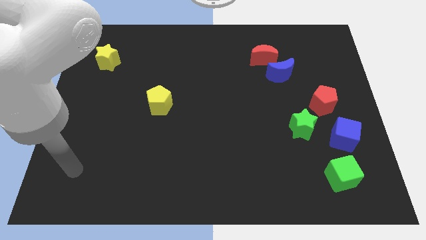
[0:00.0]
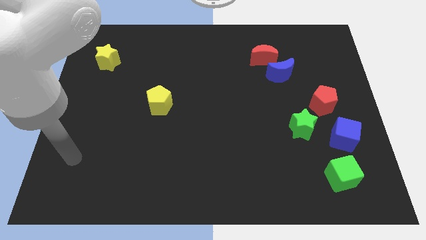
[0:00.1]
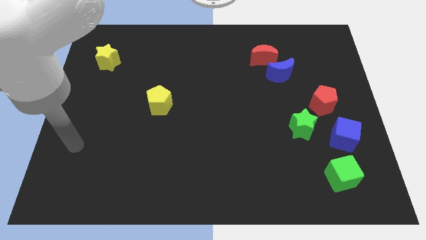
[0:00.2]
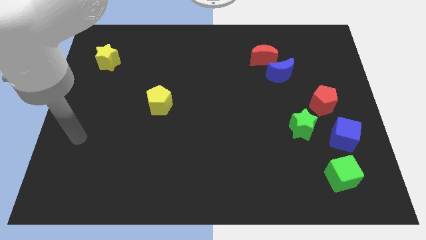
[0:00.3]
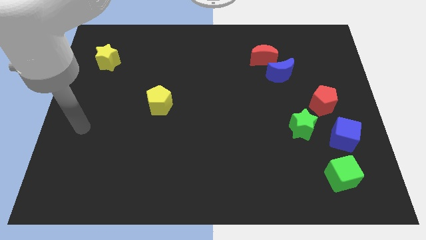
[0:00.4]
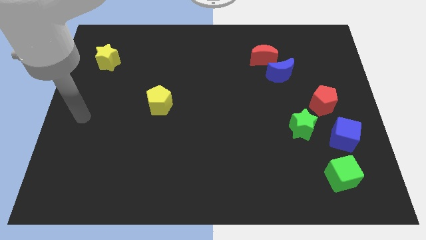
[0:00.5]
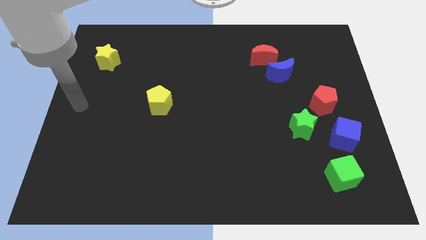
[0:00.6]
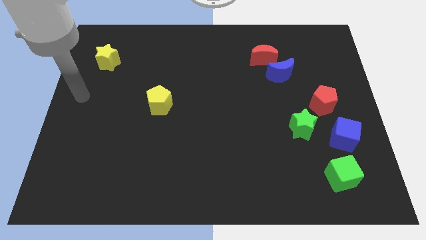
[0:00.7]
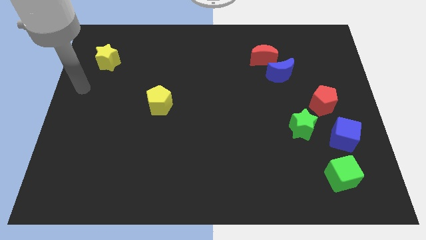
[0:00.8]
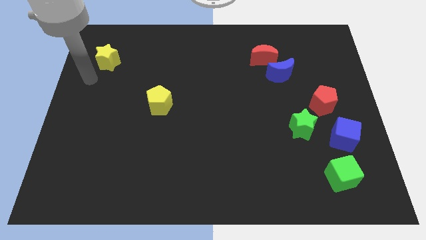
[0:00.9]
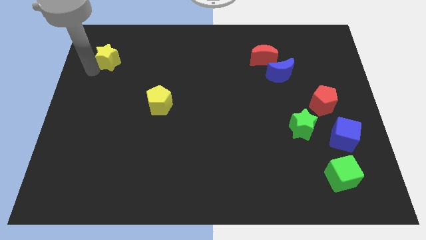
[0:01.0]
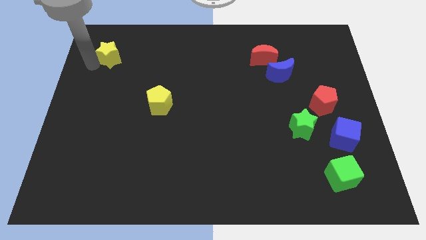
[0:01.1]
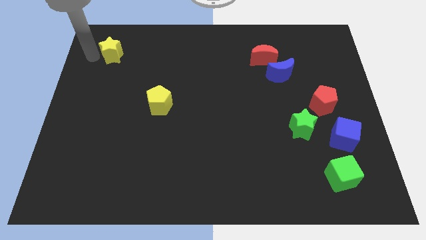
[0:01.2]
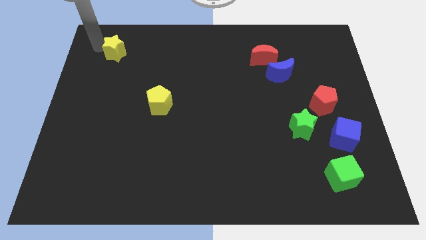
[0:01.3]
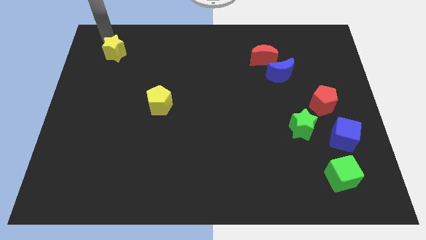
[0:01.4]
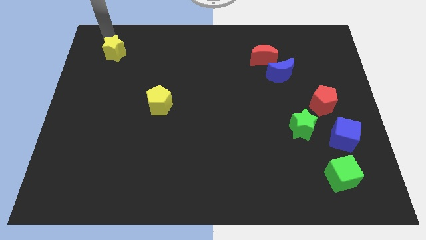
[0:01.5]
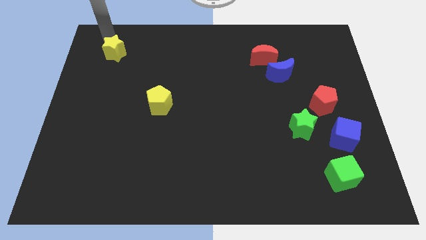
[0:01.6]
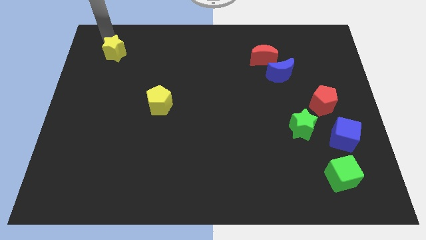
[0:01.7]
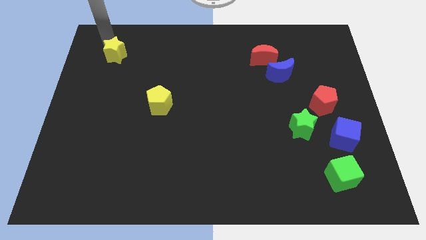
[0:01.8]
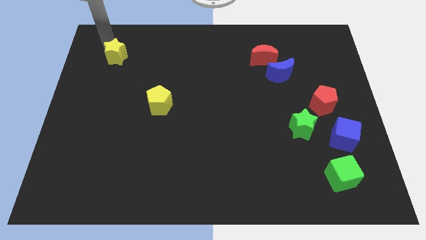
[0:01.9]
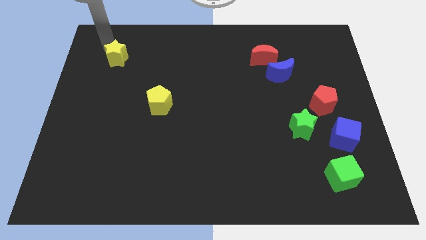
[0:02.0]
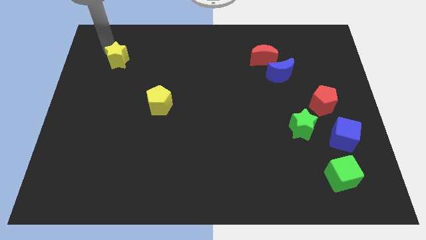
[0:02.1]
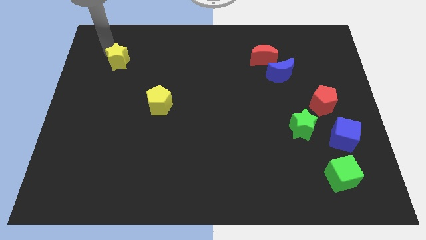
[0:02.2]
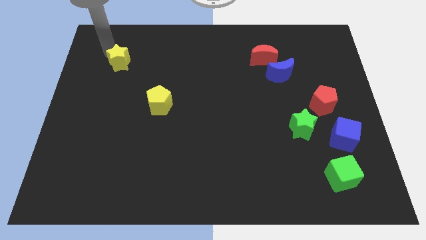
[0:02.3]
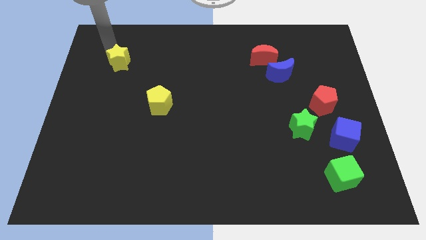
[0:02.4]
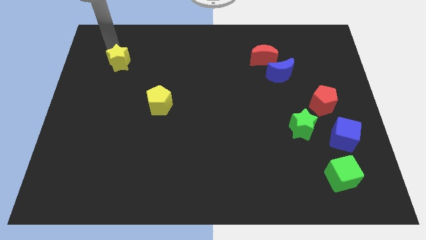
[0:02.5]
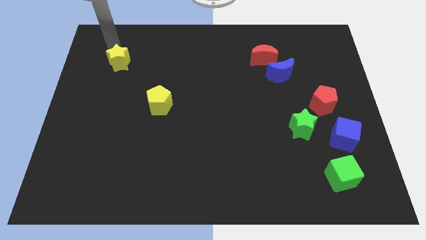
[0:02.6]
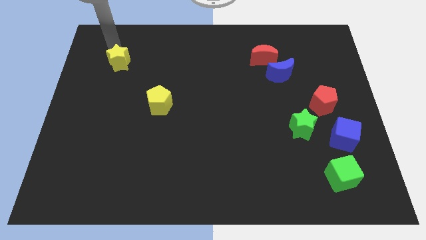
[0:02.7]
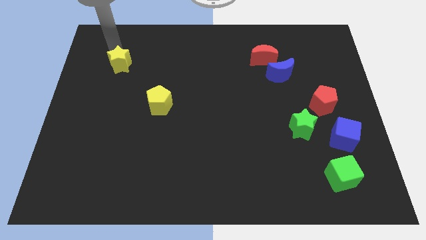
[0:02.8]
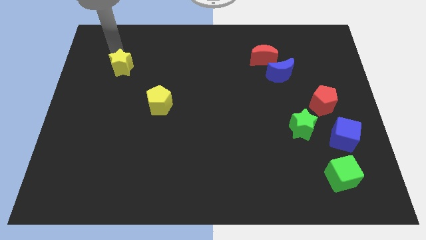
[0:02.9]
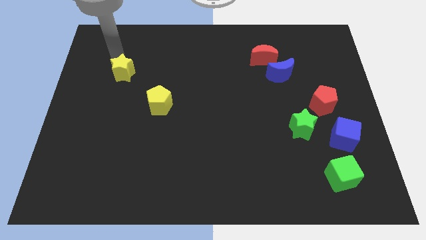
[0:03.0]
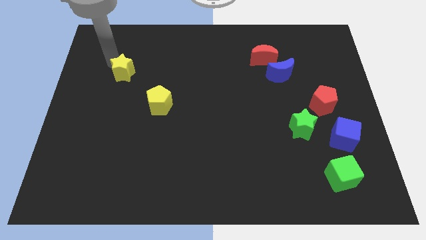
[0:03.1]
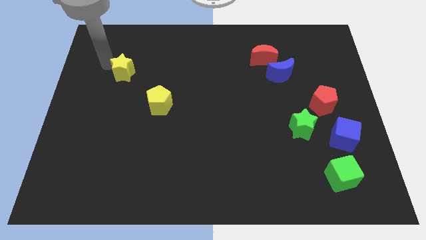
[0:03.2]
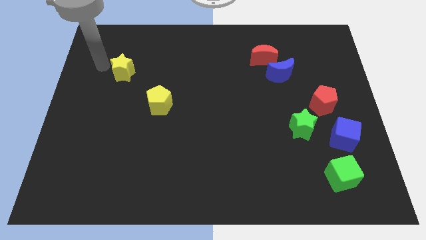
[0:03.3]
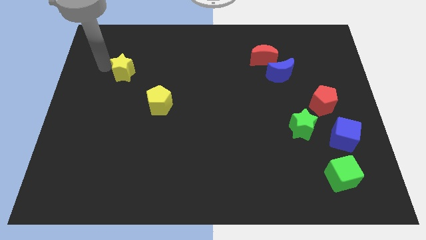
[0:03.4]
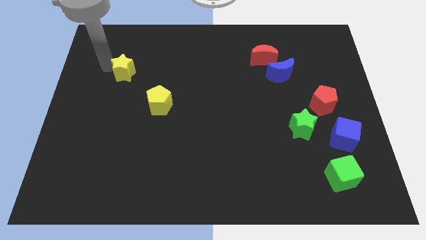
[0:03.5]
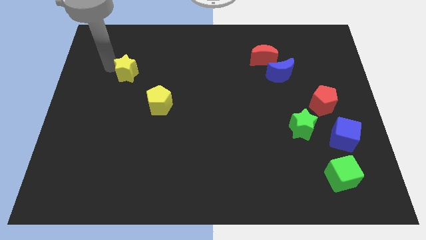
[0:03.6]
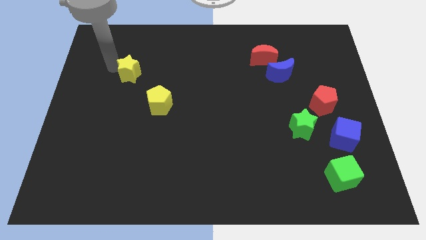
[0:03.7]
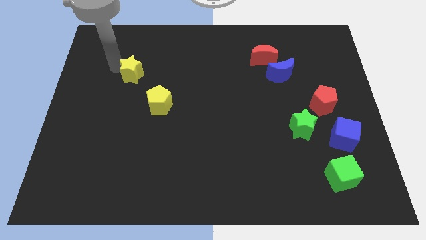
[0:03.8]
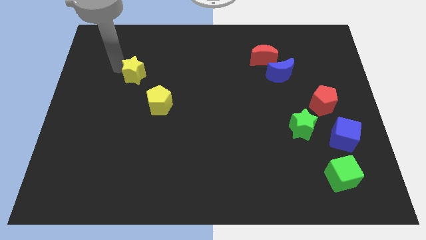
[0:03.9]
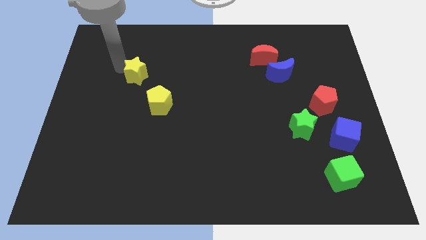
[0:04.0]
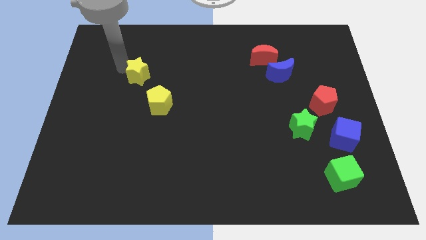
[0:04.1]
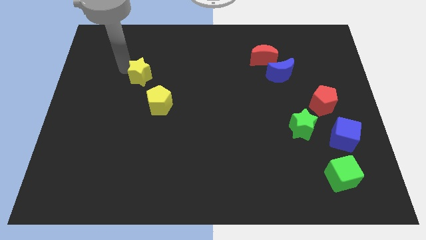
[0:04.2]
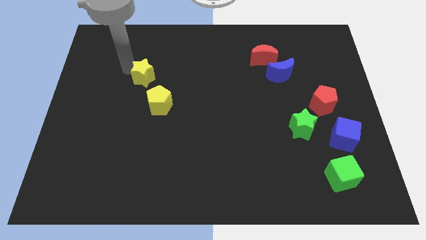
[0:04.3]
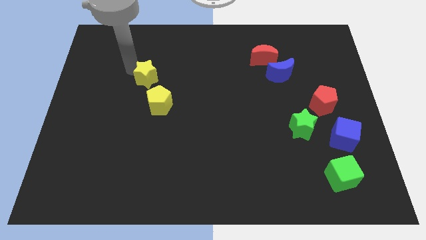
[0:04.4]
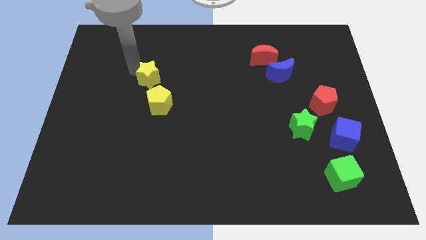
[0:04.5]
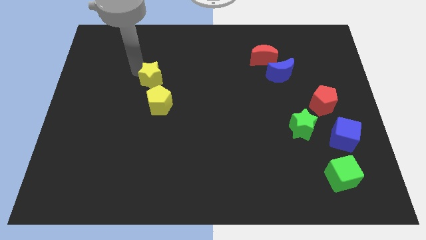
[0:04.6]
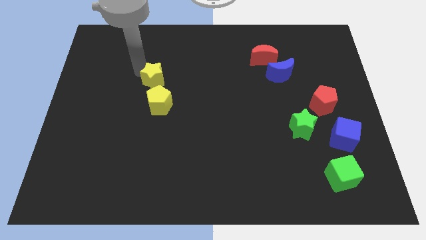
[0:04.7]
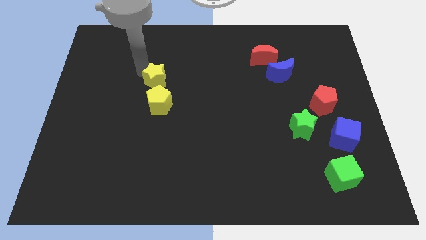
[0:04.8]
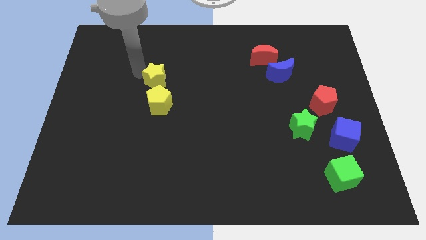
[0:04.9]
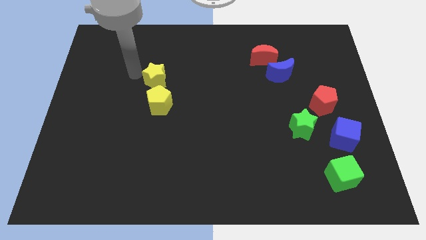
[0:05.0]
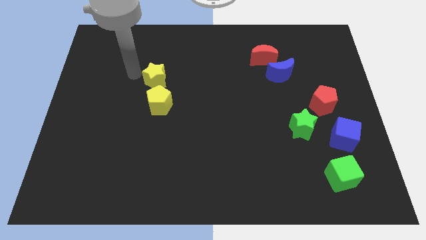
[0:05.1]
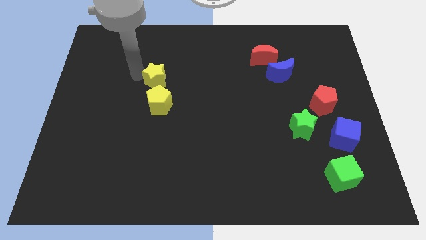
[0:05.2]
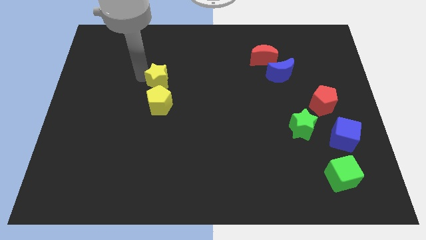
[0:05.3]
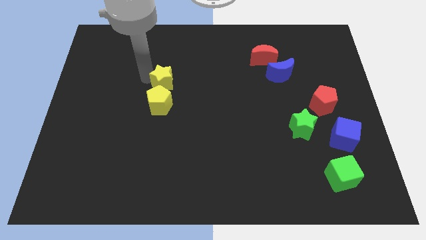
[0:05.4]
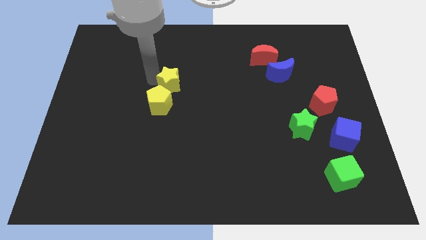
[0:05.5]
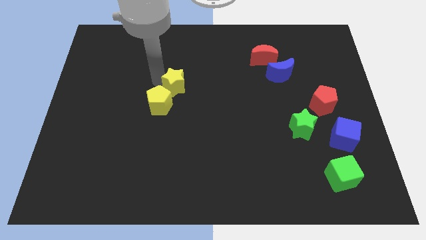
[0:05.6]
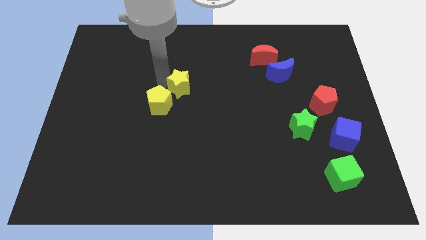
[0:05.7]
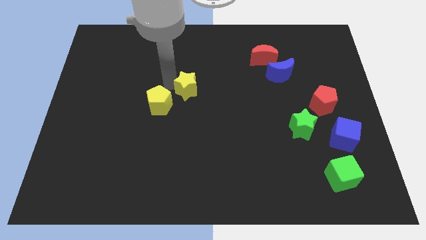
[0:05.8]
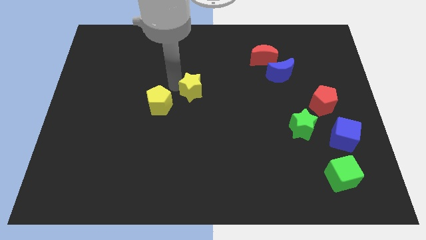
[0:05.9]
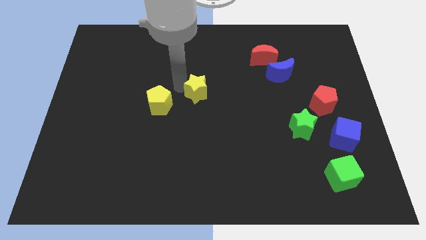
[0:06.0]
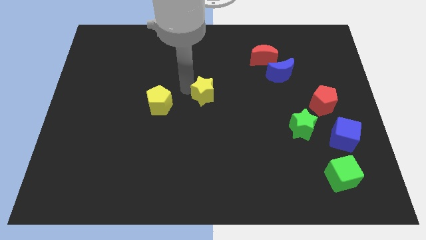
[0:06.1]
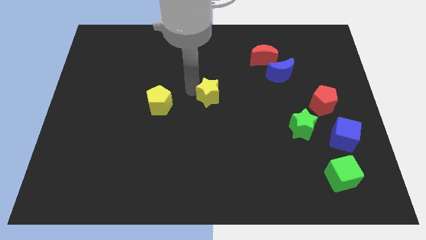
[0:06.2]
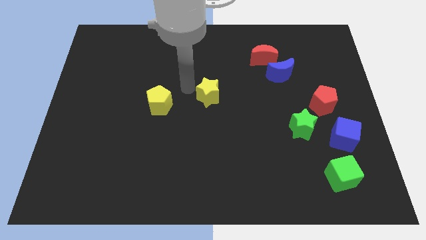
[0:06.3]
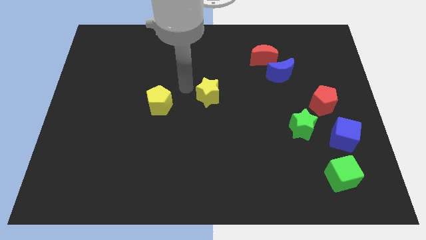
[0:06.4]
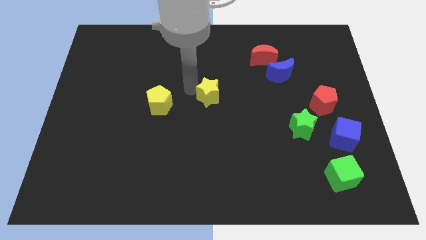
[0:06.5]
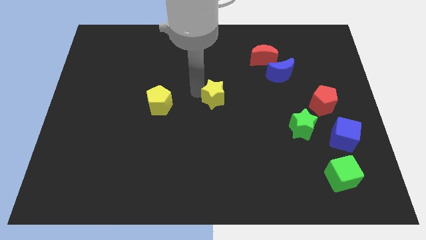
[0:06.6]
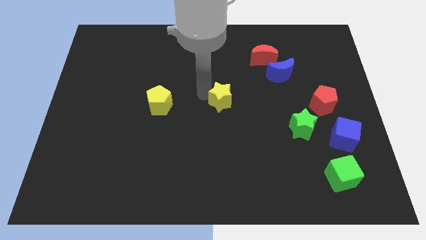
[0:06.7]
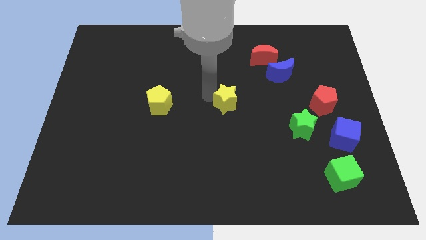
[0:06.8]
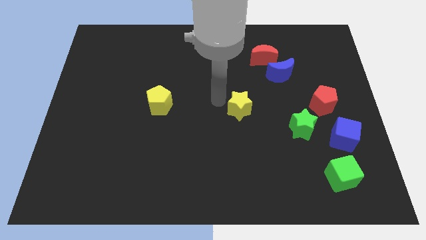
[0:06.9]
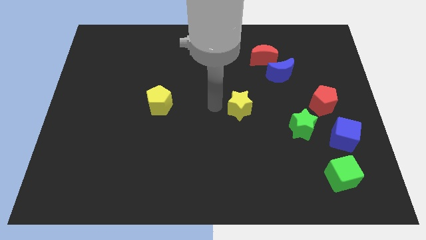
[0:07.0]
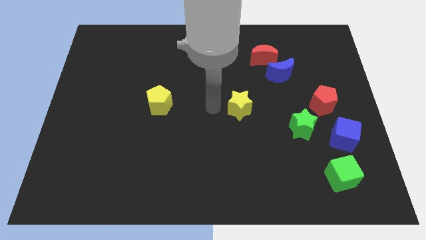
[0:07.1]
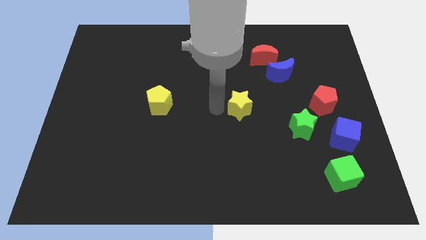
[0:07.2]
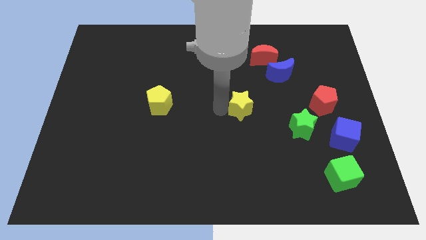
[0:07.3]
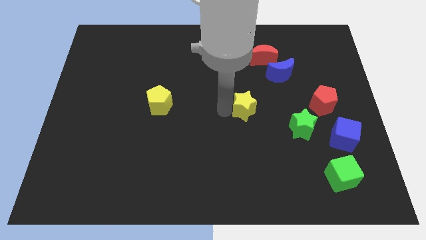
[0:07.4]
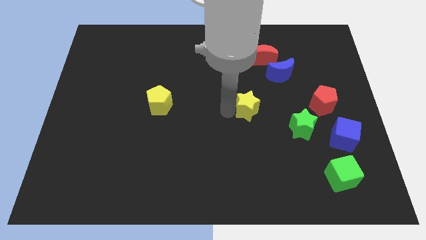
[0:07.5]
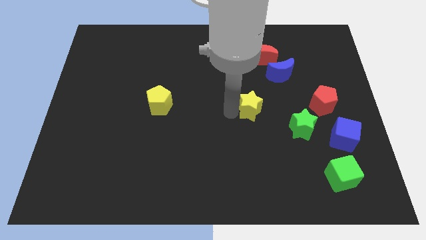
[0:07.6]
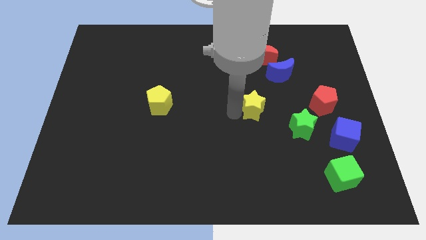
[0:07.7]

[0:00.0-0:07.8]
move the yellow star to the top left of the green star
